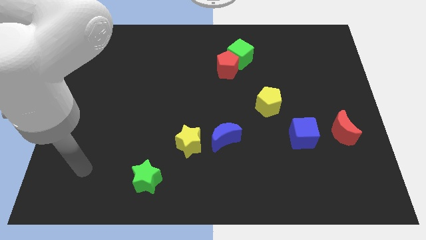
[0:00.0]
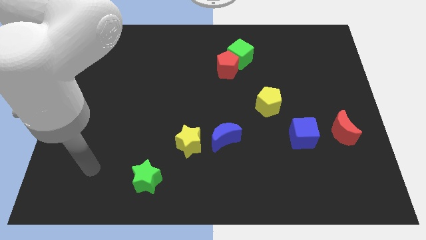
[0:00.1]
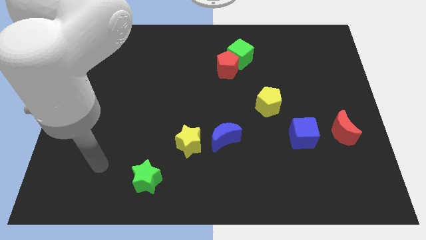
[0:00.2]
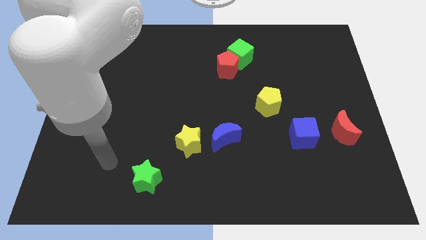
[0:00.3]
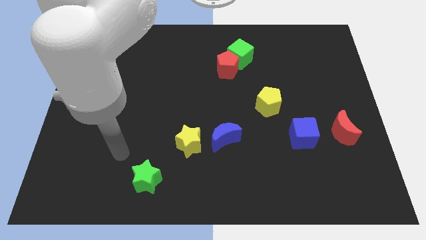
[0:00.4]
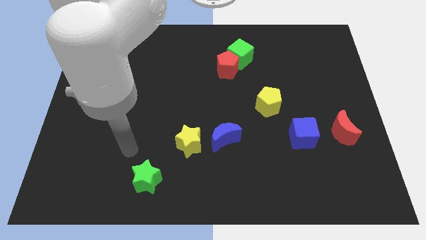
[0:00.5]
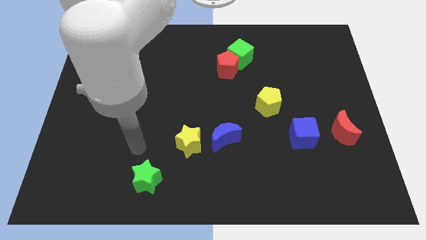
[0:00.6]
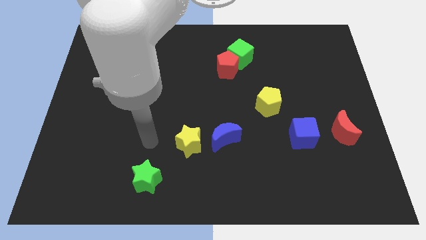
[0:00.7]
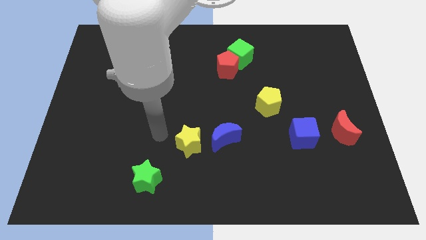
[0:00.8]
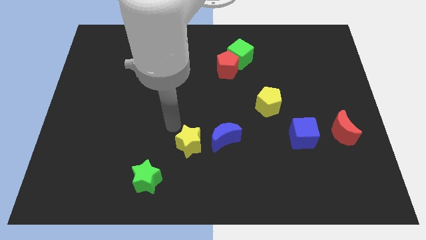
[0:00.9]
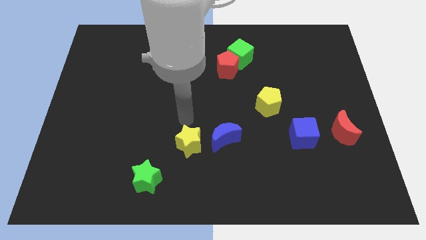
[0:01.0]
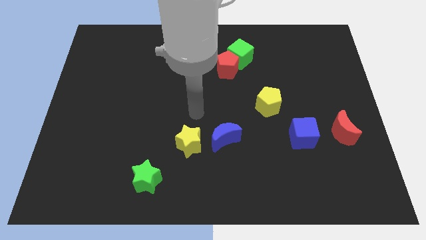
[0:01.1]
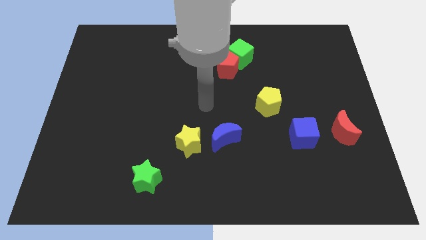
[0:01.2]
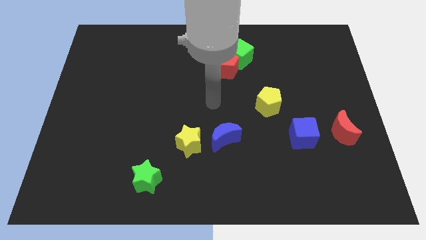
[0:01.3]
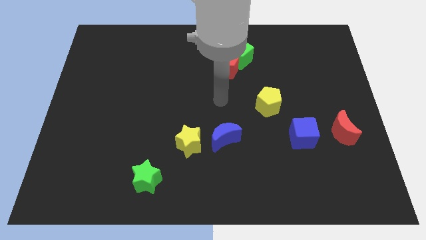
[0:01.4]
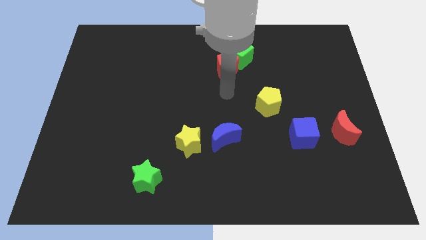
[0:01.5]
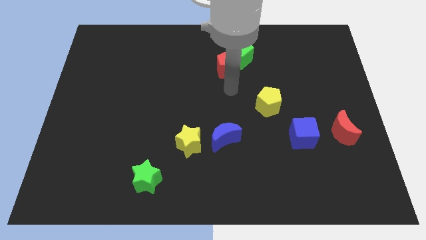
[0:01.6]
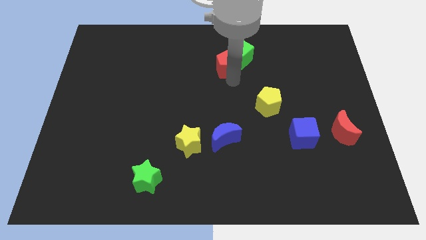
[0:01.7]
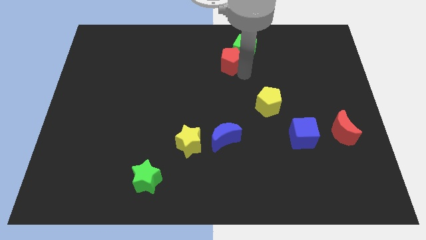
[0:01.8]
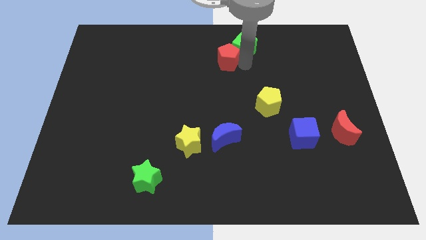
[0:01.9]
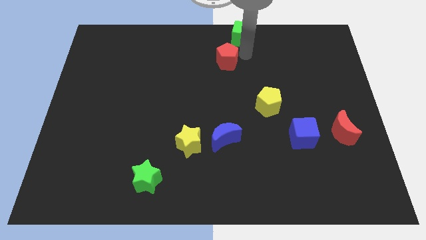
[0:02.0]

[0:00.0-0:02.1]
move the red pentagon away from the green cube

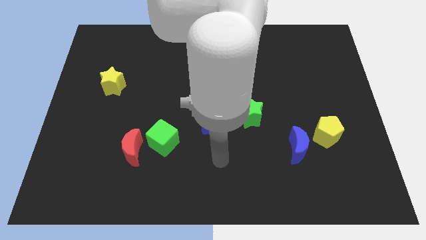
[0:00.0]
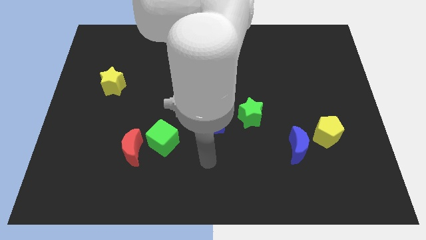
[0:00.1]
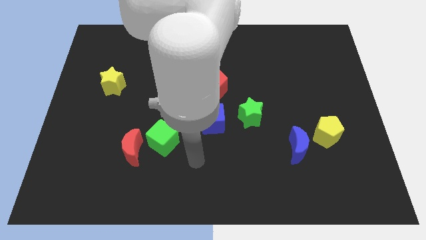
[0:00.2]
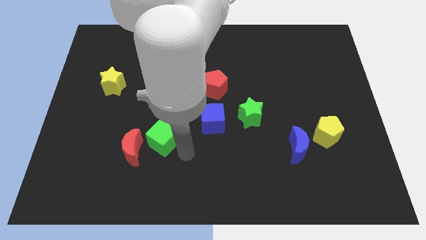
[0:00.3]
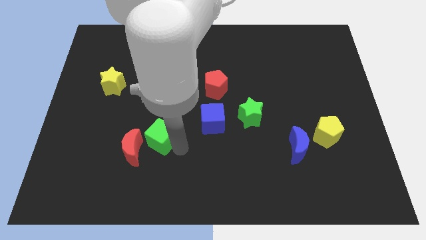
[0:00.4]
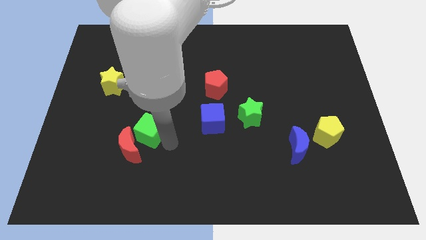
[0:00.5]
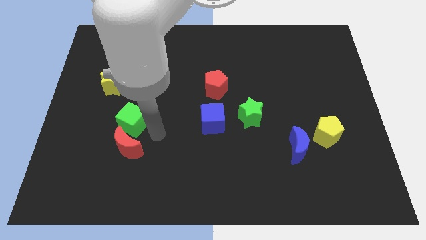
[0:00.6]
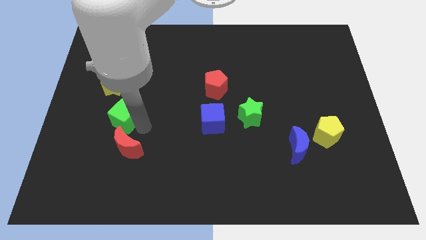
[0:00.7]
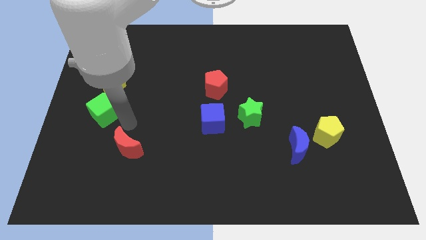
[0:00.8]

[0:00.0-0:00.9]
separate the red moon from the green cube

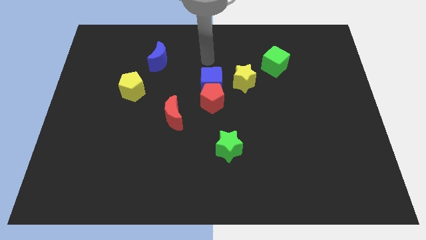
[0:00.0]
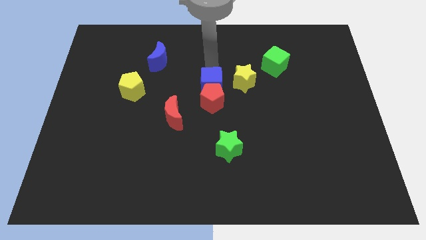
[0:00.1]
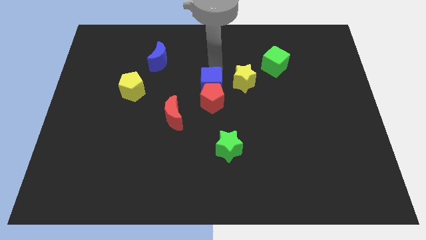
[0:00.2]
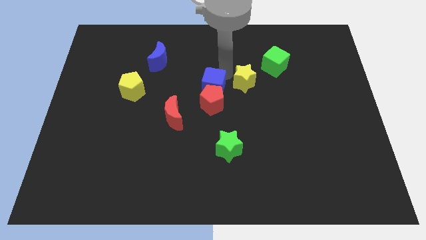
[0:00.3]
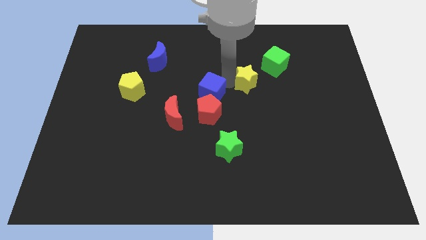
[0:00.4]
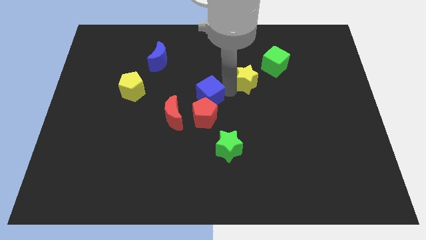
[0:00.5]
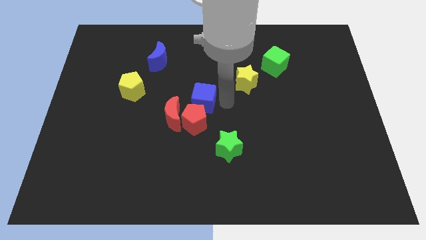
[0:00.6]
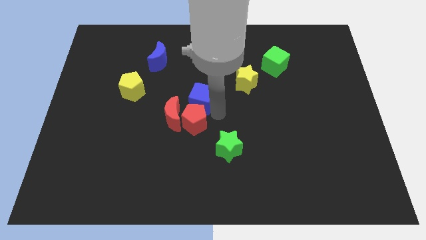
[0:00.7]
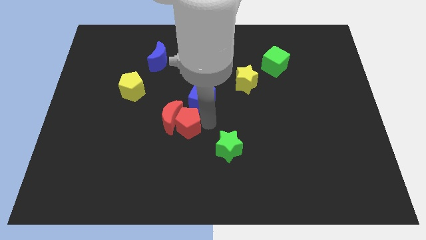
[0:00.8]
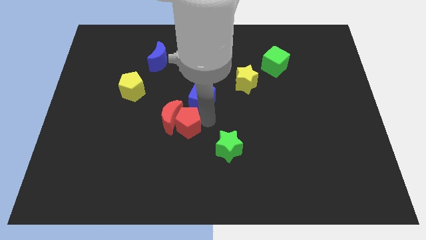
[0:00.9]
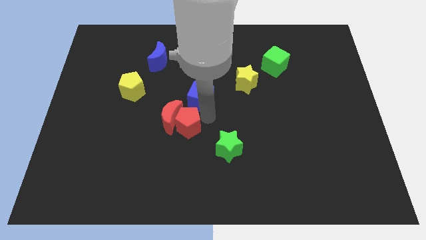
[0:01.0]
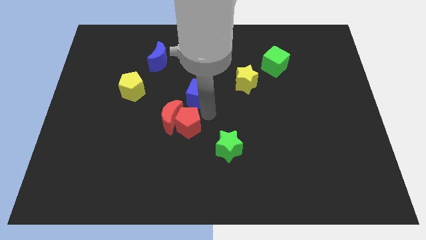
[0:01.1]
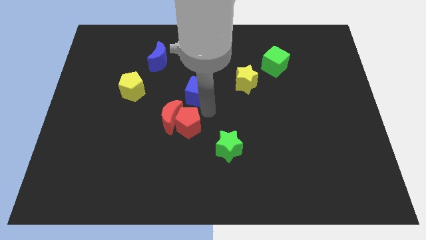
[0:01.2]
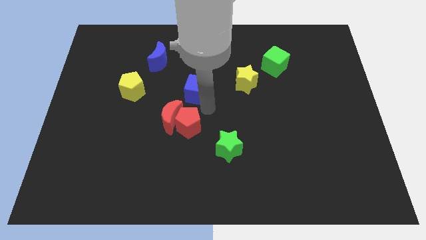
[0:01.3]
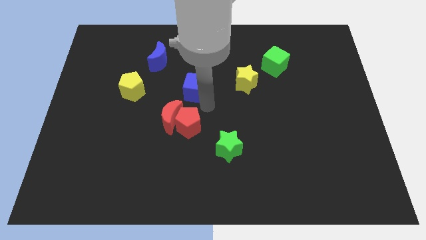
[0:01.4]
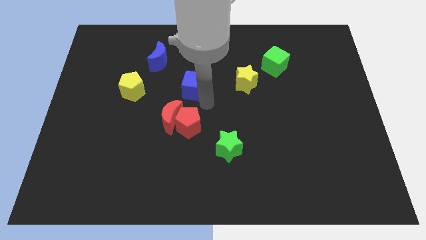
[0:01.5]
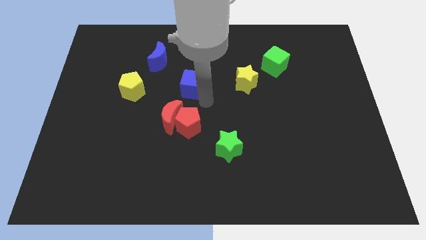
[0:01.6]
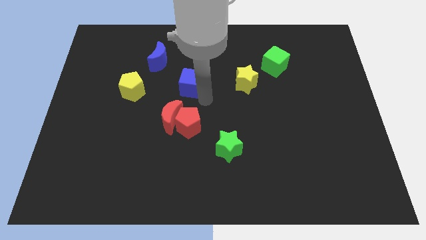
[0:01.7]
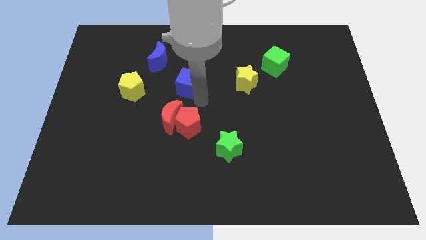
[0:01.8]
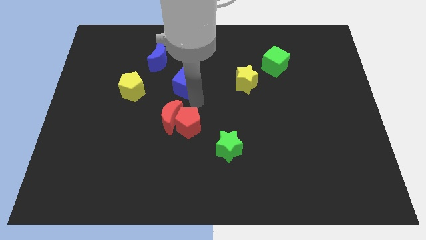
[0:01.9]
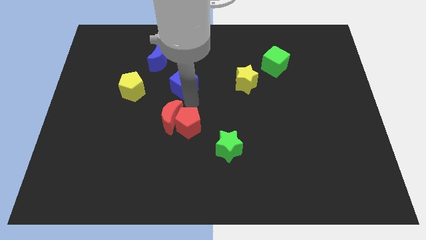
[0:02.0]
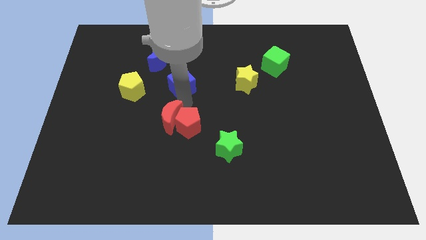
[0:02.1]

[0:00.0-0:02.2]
separate the blue cube from the red pentagon and yellow star

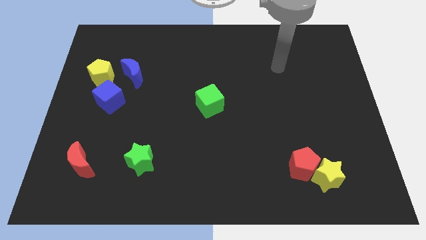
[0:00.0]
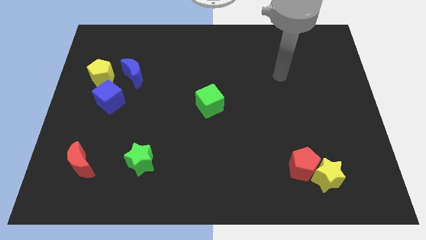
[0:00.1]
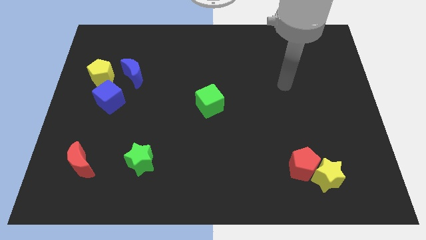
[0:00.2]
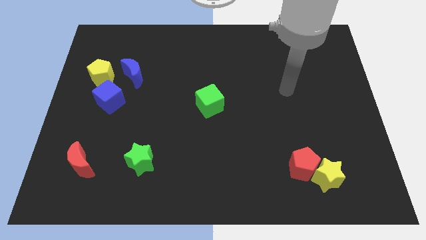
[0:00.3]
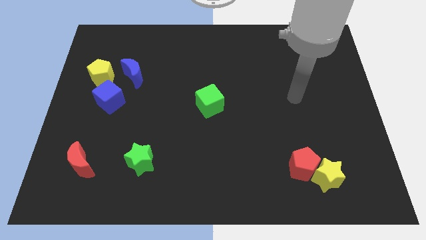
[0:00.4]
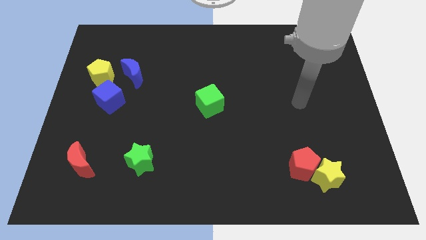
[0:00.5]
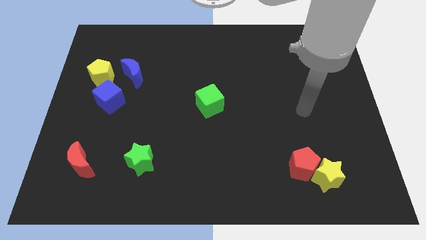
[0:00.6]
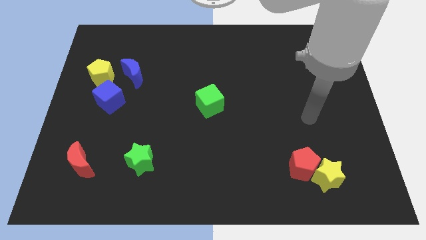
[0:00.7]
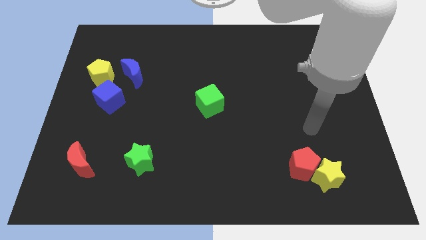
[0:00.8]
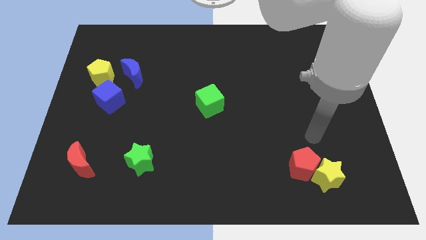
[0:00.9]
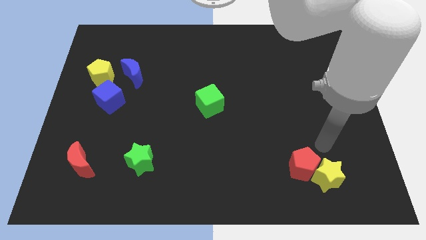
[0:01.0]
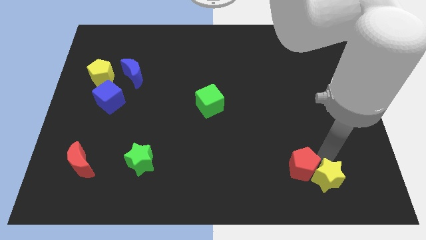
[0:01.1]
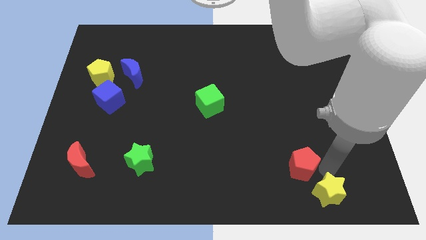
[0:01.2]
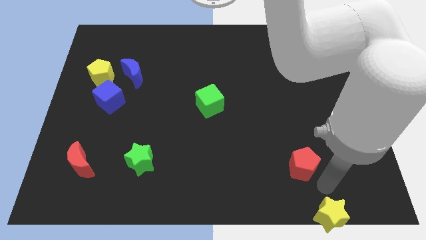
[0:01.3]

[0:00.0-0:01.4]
move the red pentagon away from the yellow star

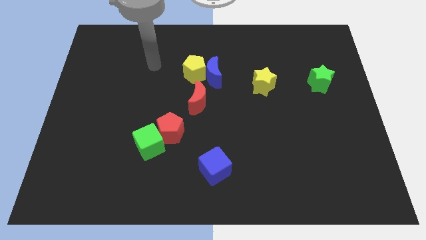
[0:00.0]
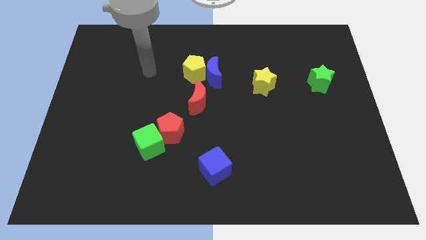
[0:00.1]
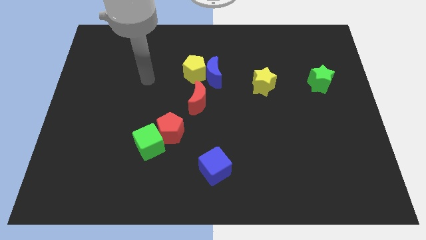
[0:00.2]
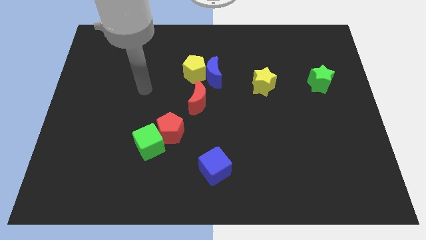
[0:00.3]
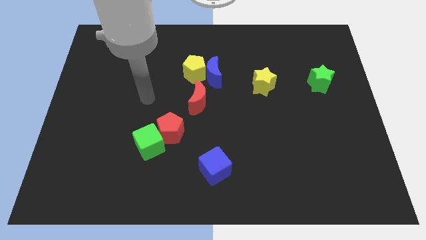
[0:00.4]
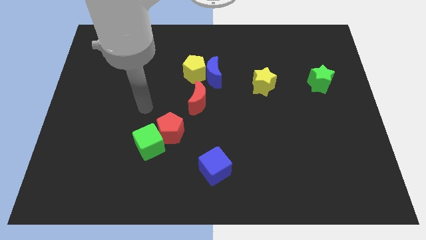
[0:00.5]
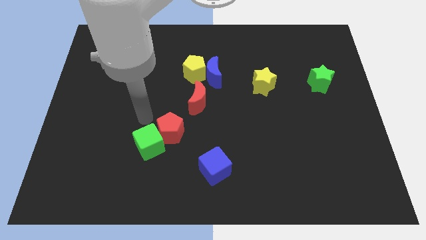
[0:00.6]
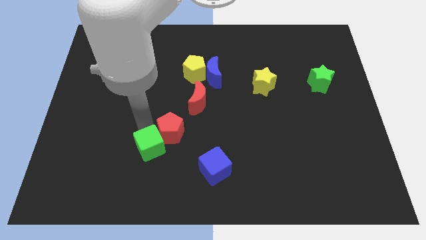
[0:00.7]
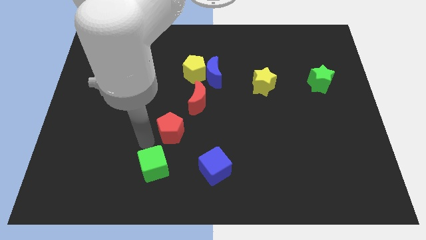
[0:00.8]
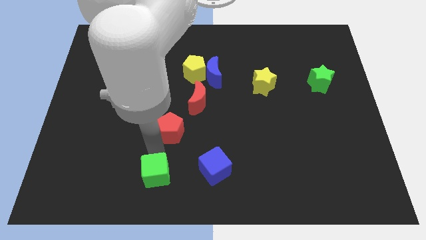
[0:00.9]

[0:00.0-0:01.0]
pull the red pentagon apart from the green cube

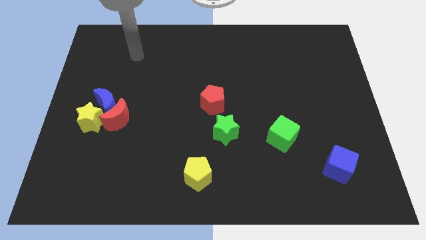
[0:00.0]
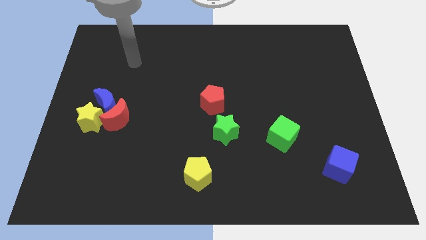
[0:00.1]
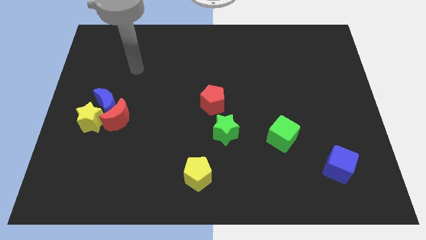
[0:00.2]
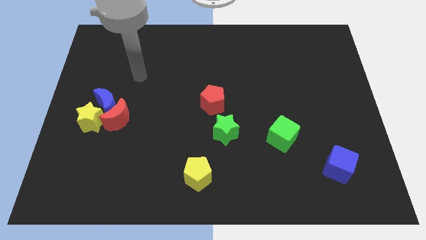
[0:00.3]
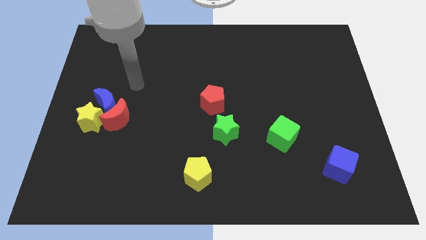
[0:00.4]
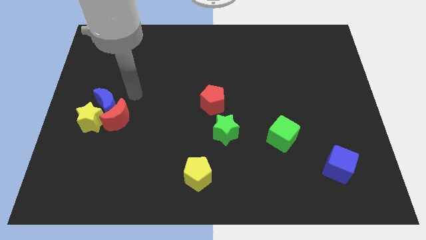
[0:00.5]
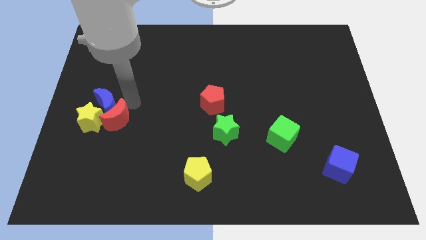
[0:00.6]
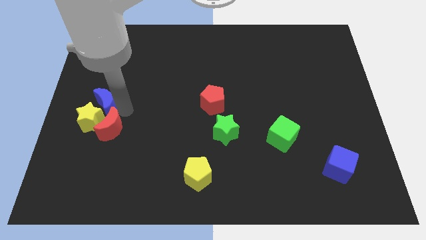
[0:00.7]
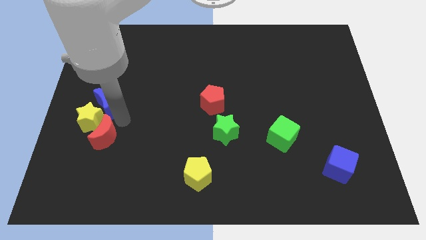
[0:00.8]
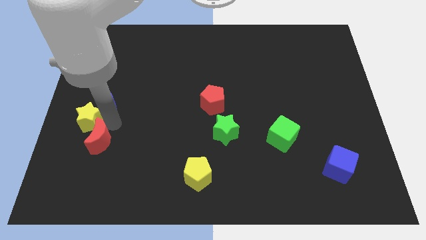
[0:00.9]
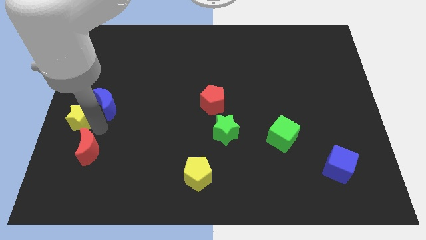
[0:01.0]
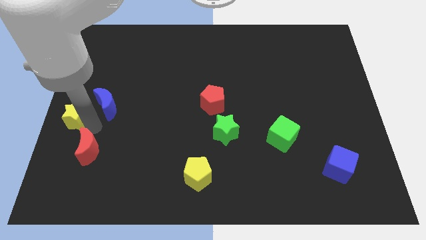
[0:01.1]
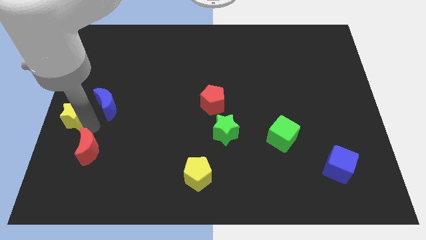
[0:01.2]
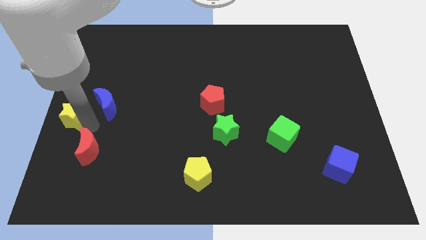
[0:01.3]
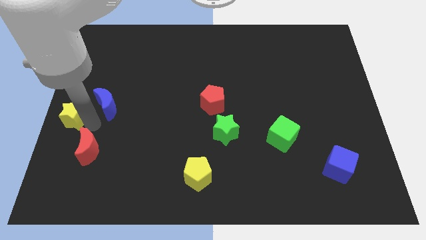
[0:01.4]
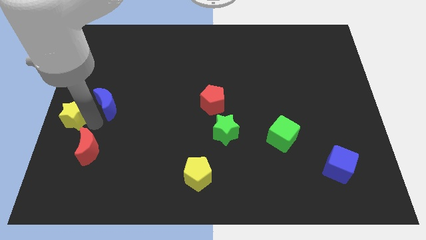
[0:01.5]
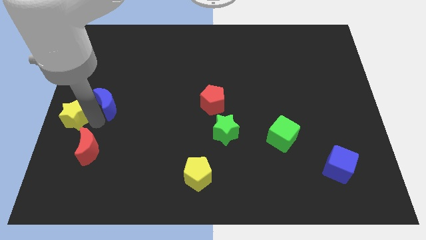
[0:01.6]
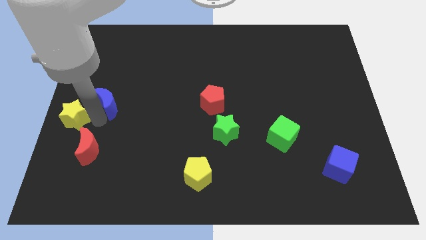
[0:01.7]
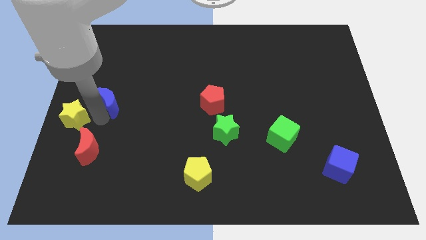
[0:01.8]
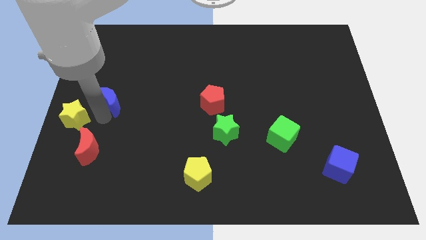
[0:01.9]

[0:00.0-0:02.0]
move the blue moon away from the red moon and yellow star
